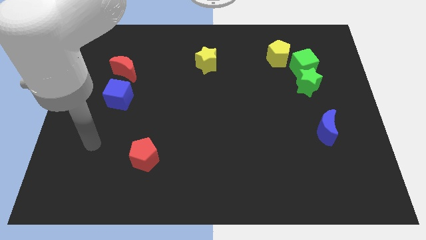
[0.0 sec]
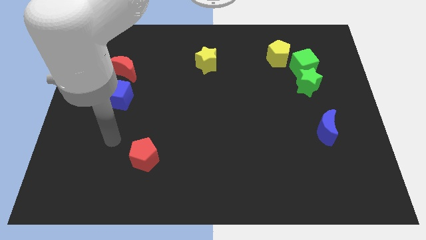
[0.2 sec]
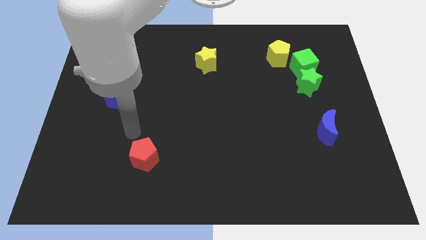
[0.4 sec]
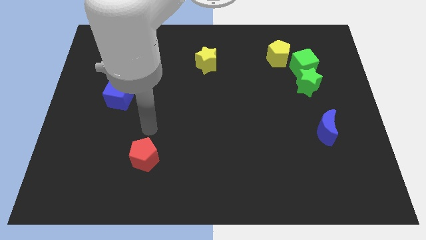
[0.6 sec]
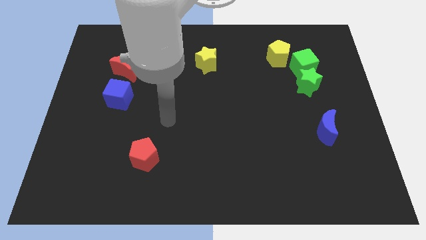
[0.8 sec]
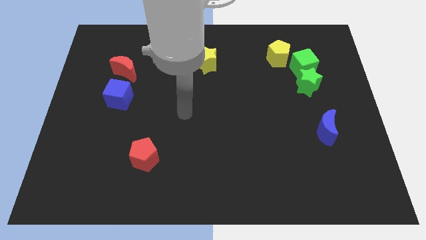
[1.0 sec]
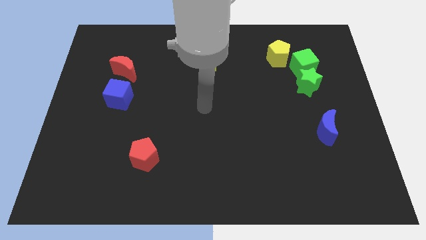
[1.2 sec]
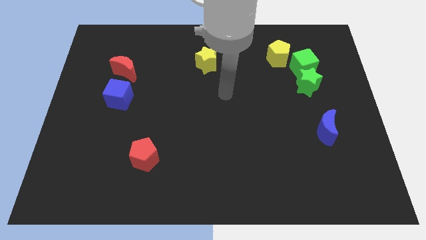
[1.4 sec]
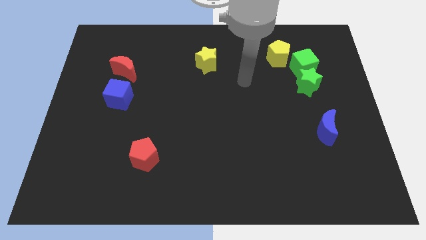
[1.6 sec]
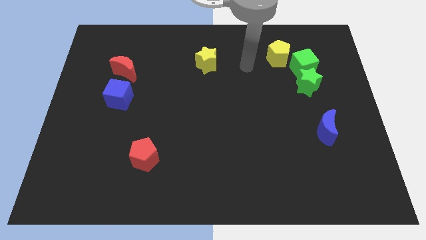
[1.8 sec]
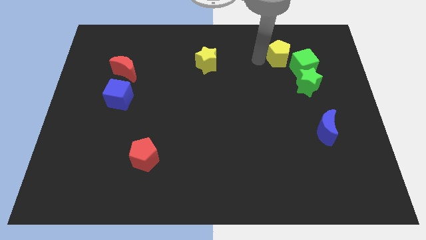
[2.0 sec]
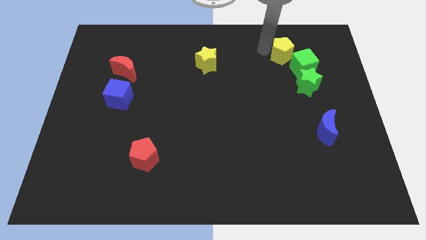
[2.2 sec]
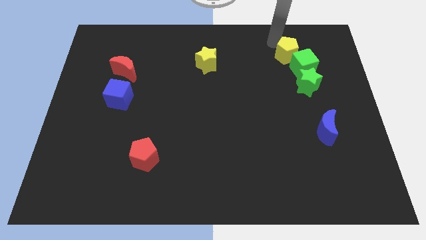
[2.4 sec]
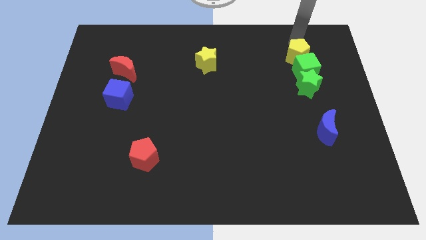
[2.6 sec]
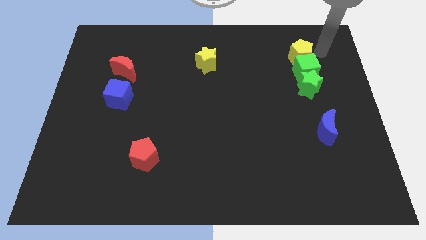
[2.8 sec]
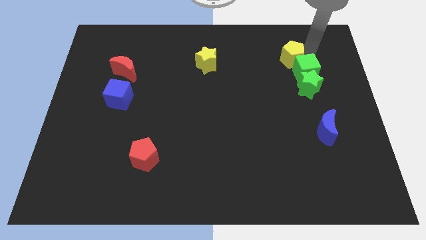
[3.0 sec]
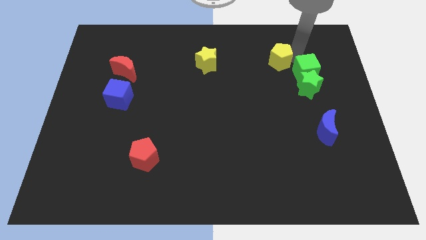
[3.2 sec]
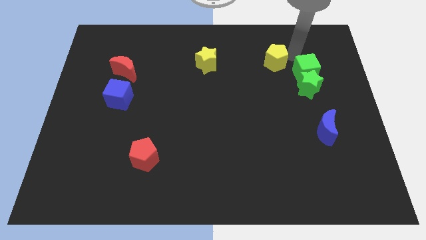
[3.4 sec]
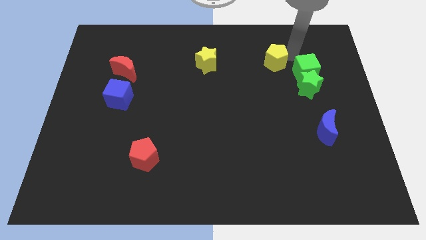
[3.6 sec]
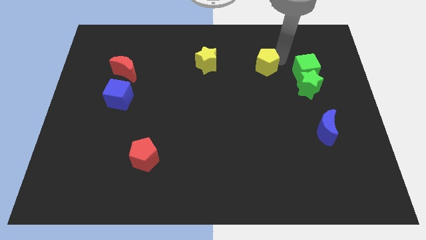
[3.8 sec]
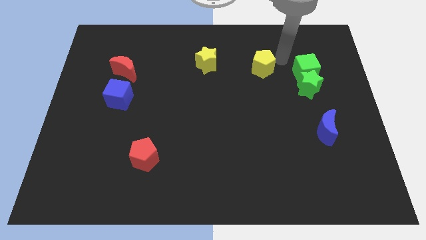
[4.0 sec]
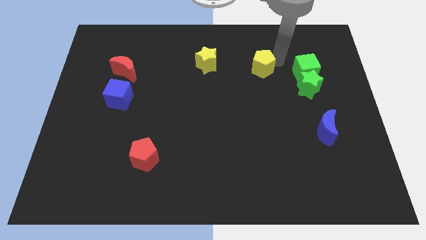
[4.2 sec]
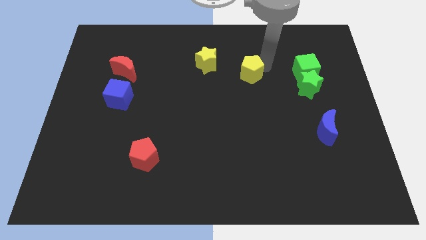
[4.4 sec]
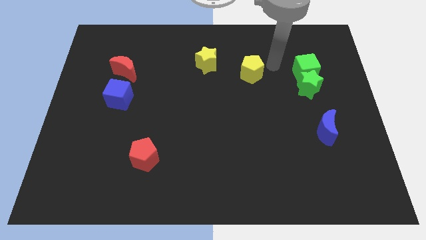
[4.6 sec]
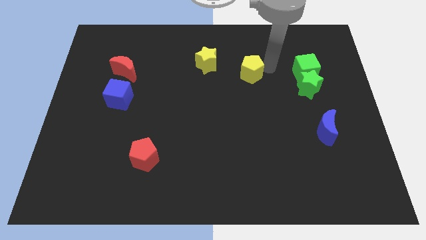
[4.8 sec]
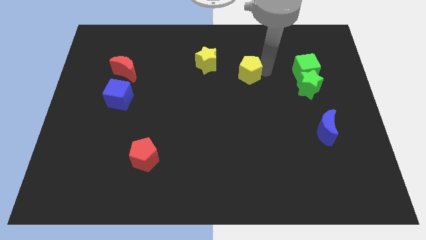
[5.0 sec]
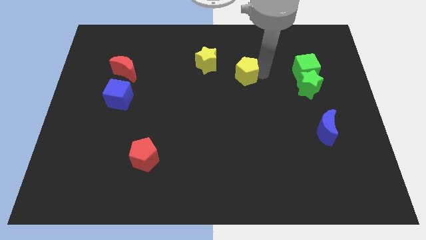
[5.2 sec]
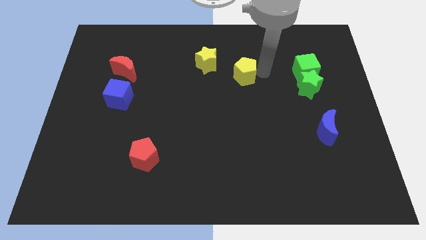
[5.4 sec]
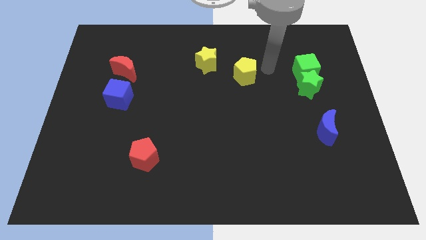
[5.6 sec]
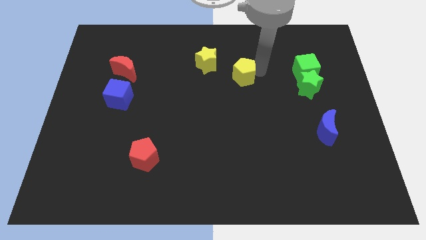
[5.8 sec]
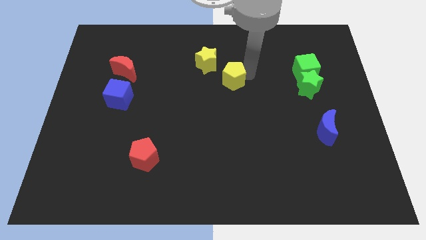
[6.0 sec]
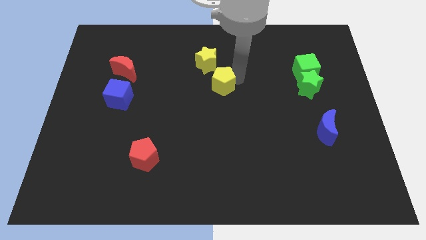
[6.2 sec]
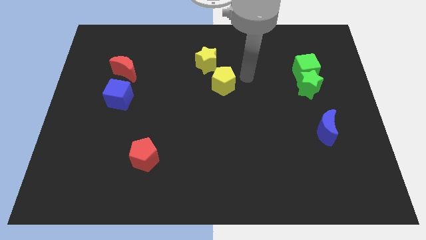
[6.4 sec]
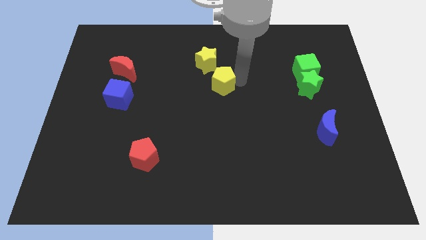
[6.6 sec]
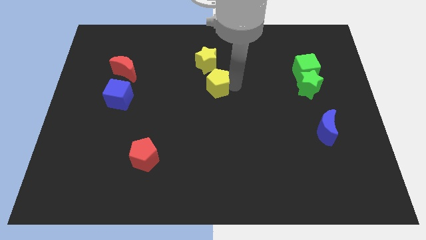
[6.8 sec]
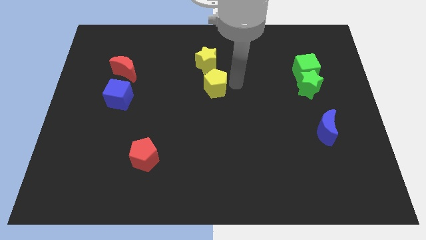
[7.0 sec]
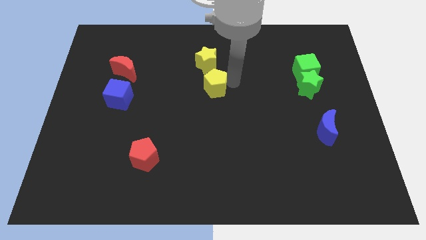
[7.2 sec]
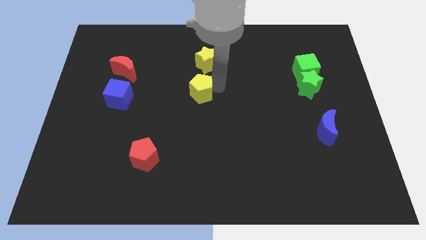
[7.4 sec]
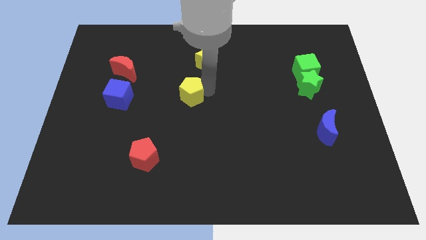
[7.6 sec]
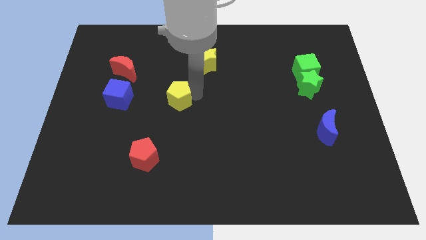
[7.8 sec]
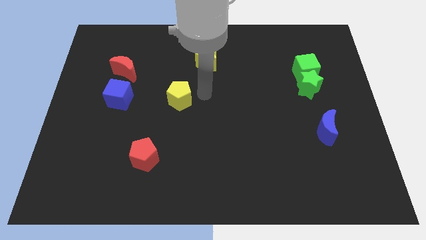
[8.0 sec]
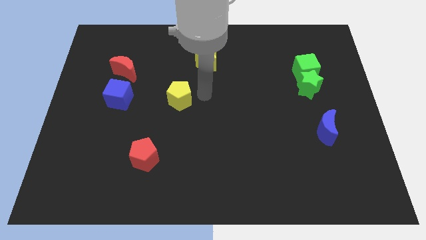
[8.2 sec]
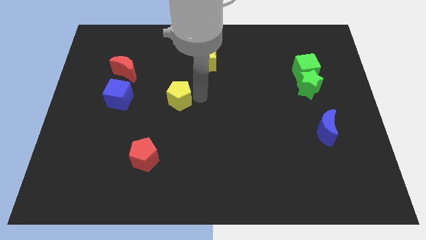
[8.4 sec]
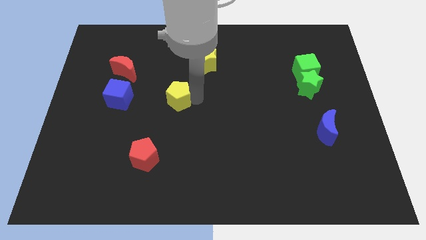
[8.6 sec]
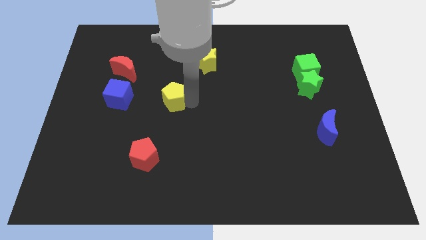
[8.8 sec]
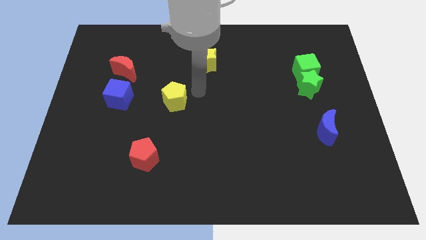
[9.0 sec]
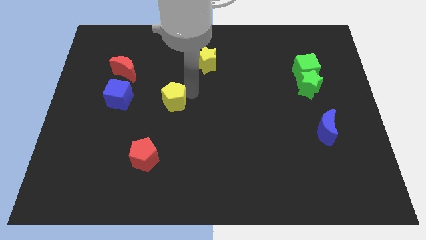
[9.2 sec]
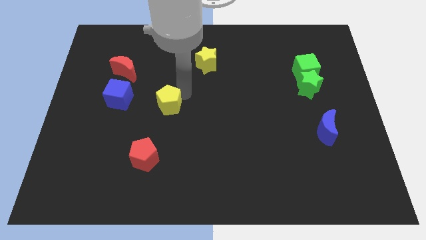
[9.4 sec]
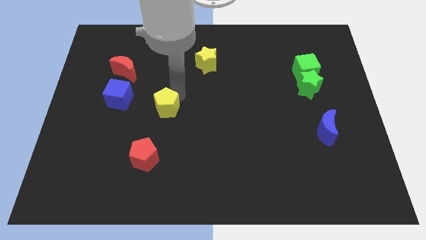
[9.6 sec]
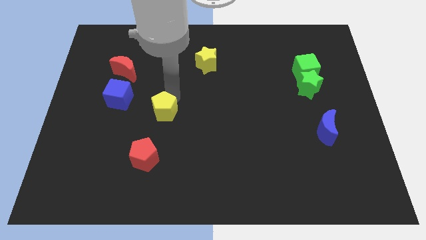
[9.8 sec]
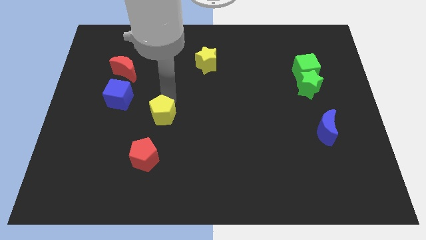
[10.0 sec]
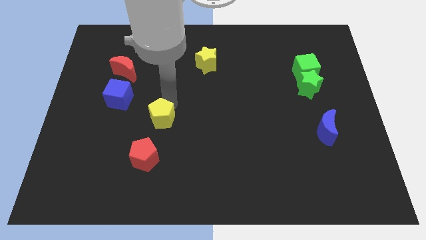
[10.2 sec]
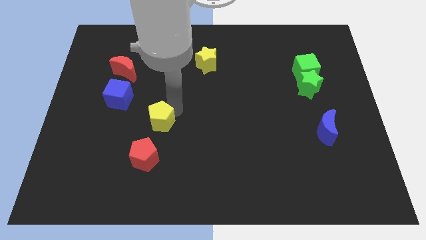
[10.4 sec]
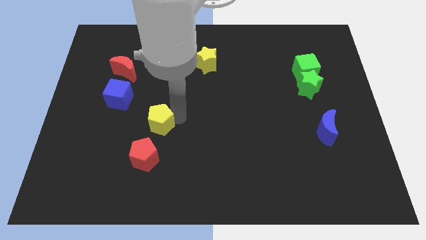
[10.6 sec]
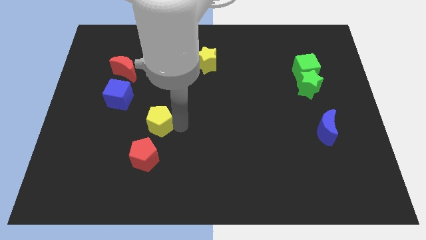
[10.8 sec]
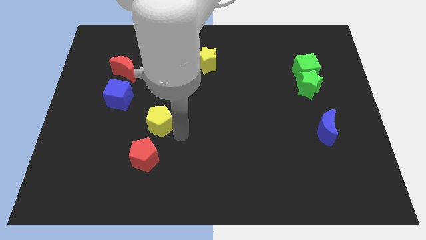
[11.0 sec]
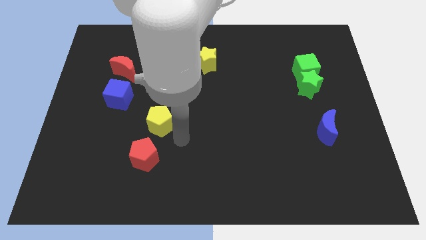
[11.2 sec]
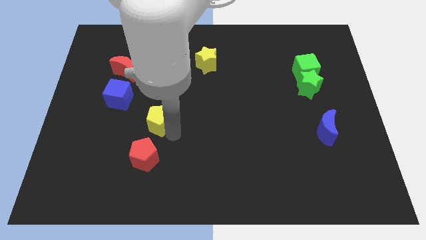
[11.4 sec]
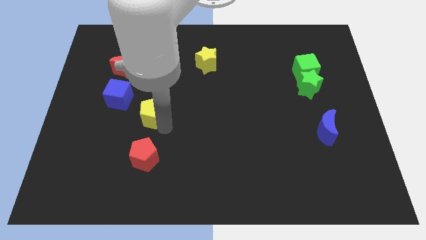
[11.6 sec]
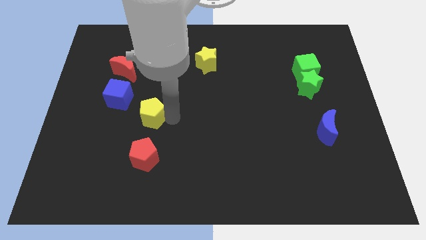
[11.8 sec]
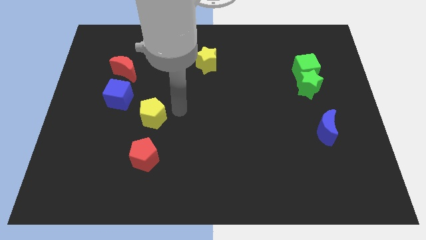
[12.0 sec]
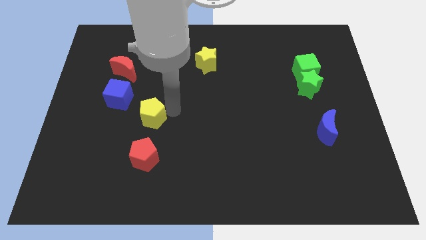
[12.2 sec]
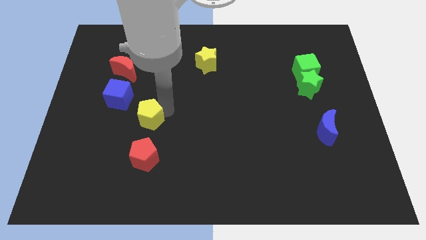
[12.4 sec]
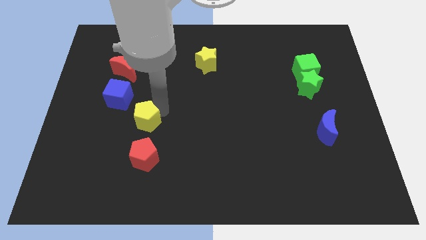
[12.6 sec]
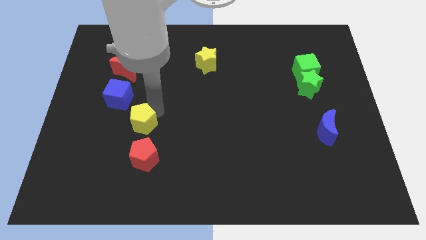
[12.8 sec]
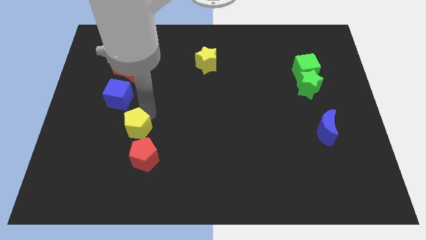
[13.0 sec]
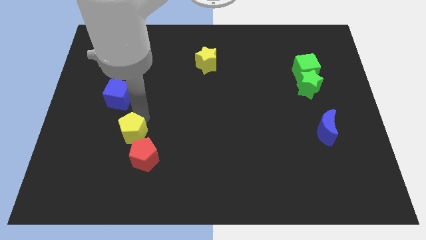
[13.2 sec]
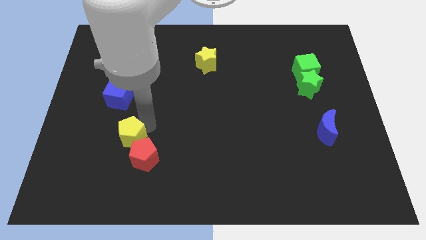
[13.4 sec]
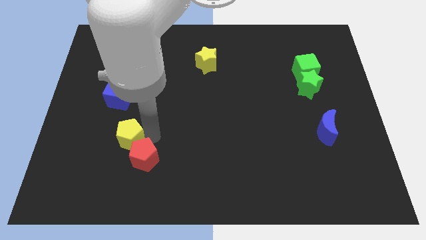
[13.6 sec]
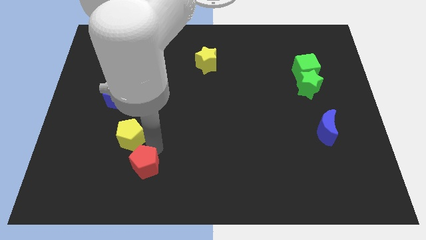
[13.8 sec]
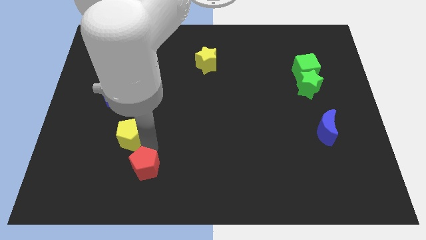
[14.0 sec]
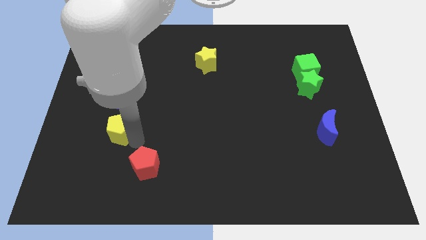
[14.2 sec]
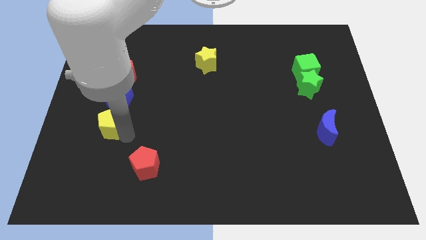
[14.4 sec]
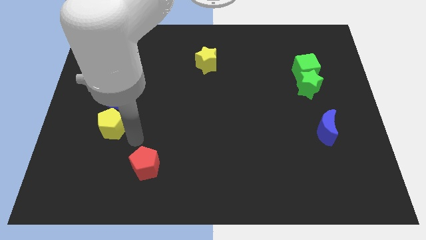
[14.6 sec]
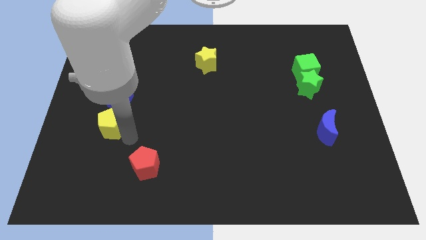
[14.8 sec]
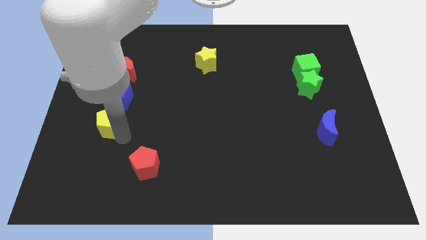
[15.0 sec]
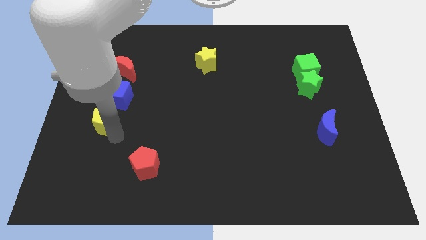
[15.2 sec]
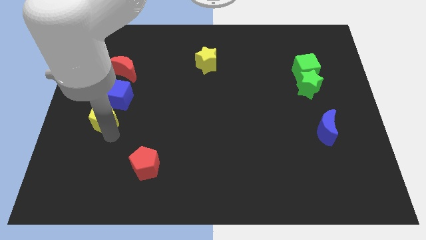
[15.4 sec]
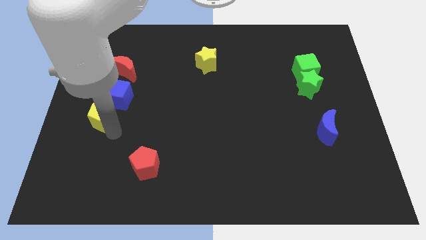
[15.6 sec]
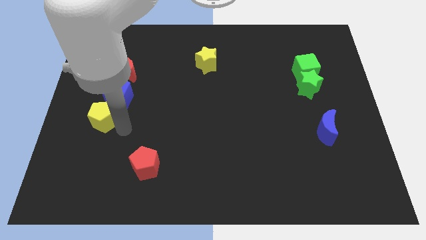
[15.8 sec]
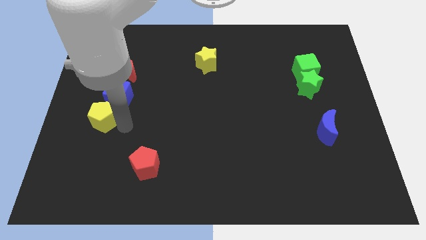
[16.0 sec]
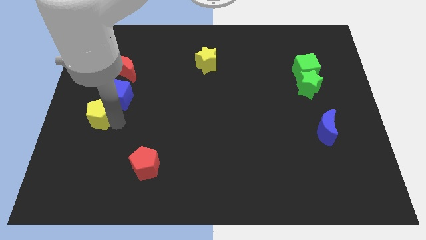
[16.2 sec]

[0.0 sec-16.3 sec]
put the yellow pentagon to the left side
